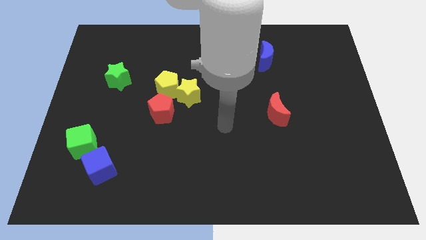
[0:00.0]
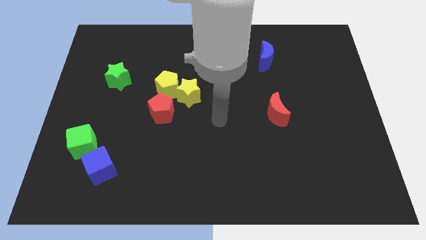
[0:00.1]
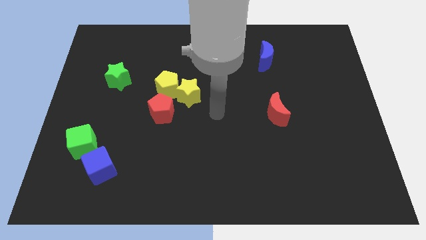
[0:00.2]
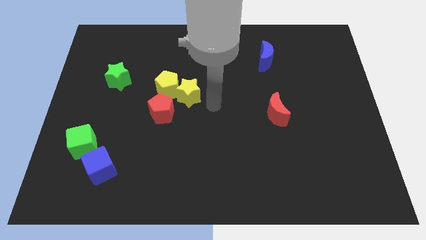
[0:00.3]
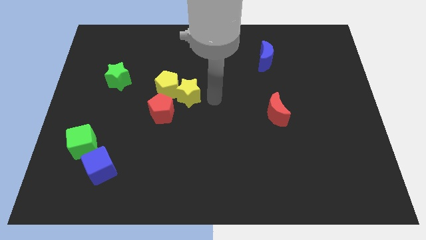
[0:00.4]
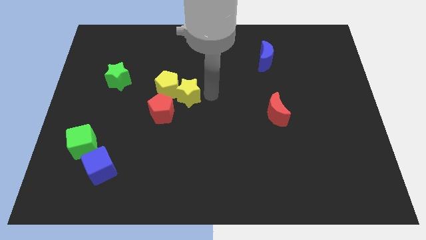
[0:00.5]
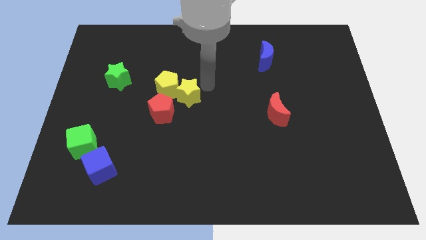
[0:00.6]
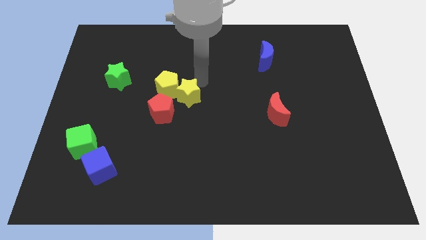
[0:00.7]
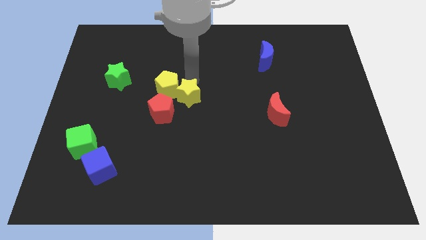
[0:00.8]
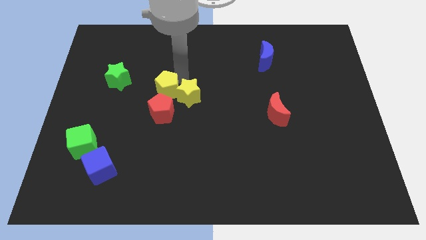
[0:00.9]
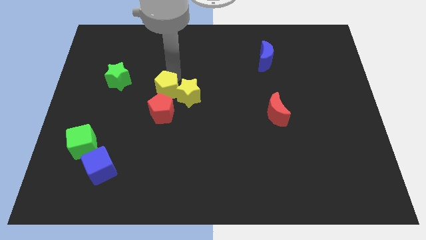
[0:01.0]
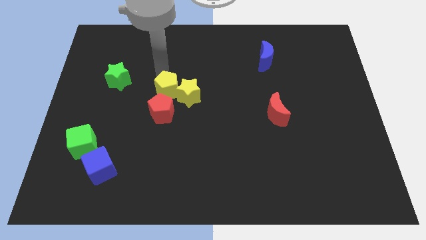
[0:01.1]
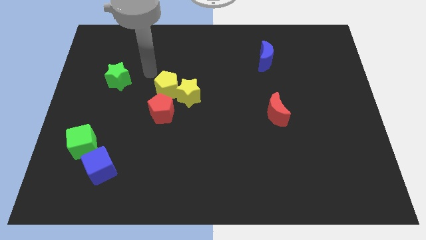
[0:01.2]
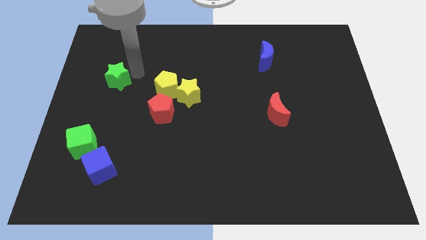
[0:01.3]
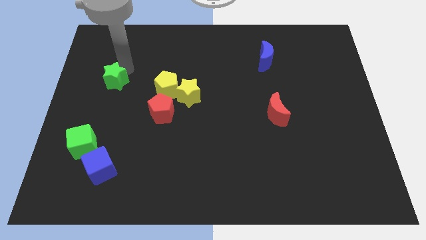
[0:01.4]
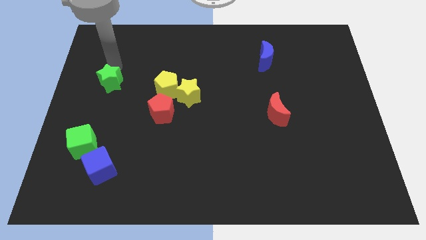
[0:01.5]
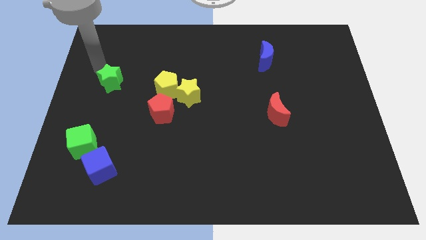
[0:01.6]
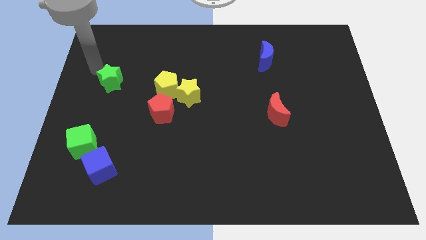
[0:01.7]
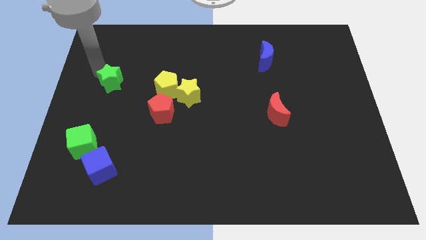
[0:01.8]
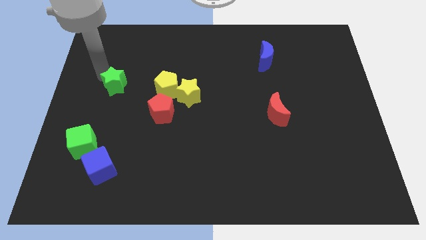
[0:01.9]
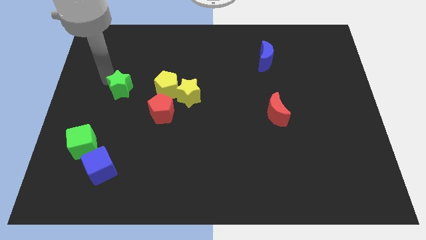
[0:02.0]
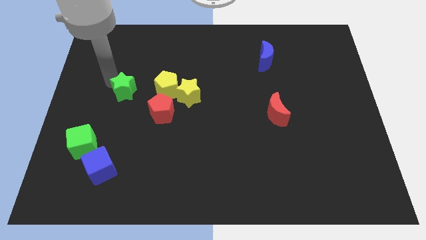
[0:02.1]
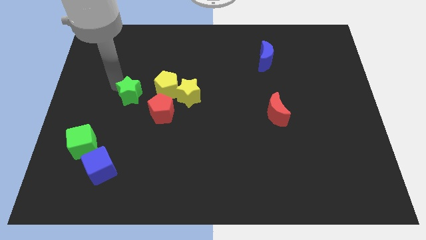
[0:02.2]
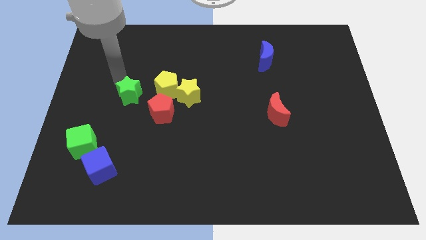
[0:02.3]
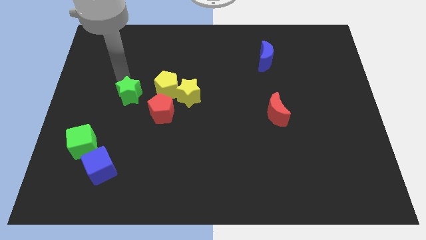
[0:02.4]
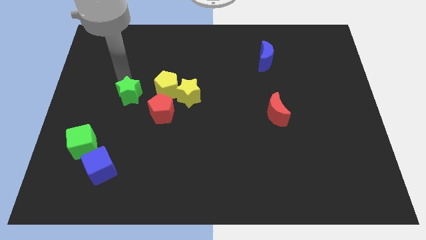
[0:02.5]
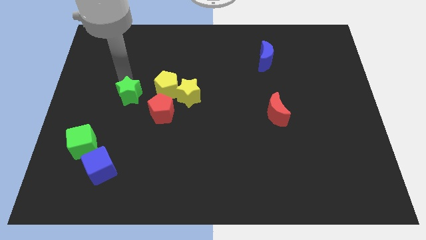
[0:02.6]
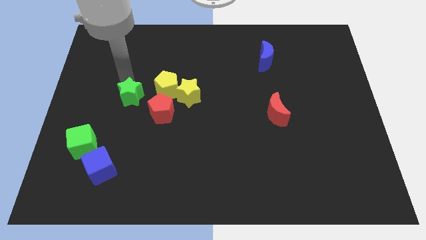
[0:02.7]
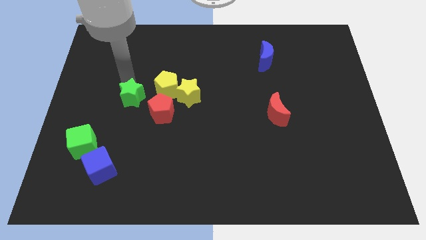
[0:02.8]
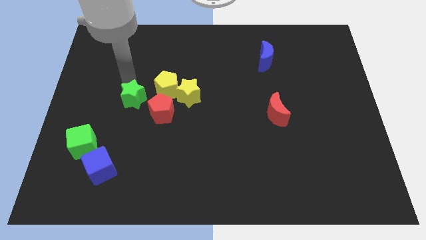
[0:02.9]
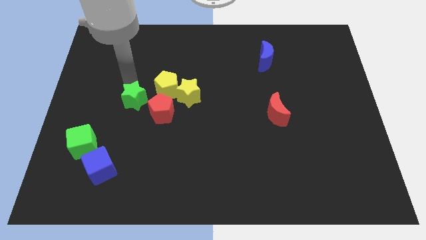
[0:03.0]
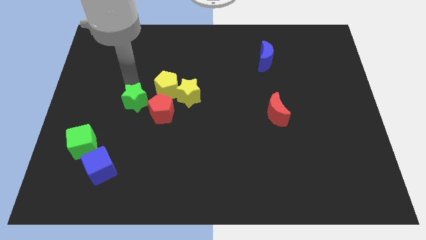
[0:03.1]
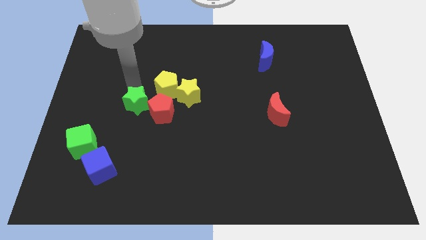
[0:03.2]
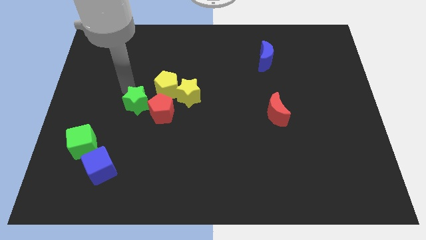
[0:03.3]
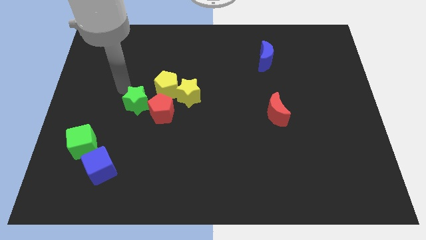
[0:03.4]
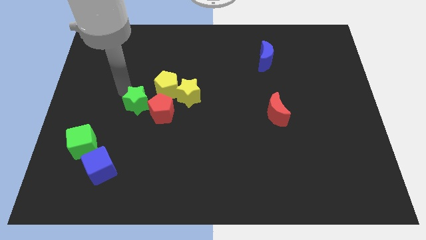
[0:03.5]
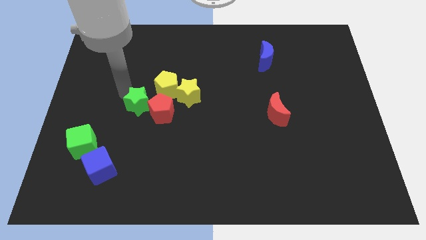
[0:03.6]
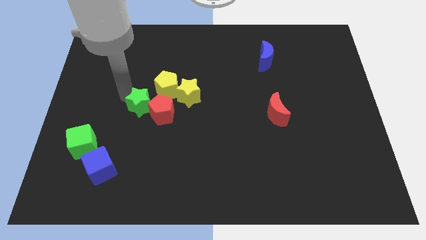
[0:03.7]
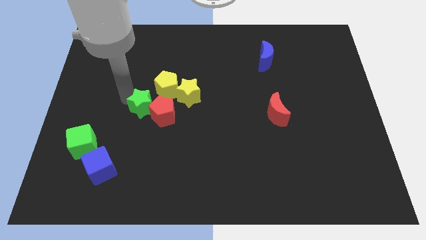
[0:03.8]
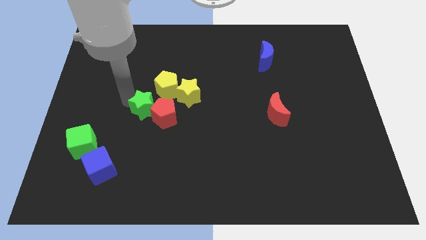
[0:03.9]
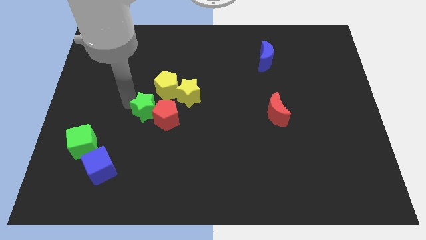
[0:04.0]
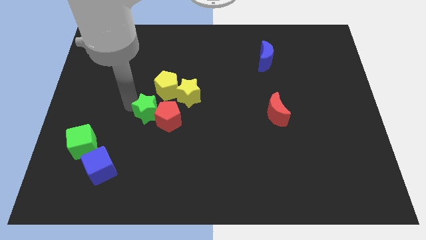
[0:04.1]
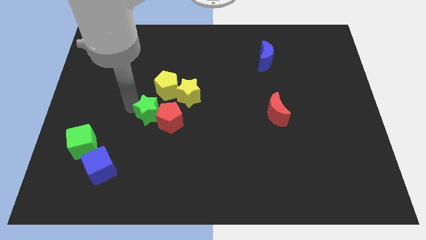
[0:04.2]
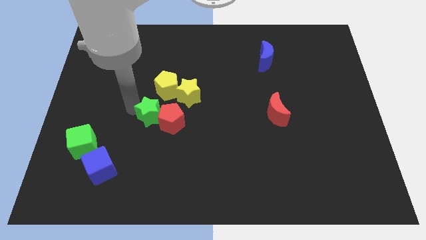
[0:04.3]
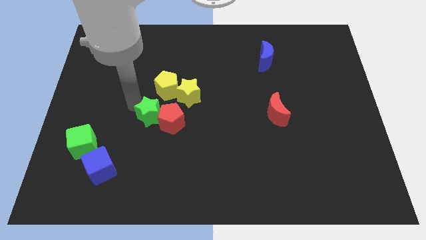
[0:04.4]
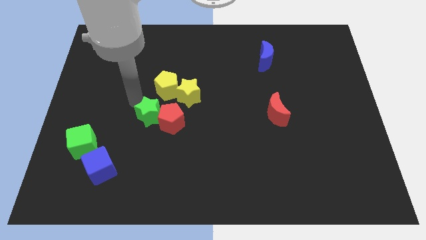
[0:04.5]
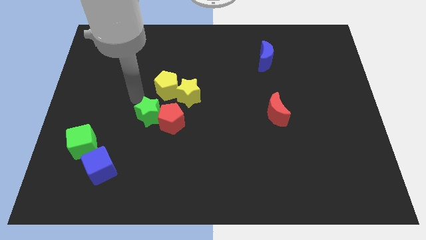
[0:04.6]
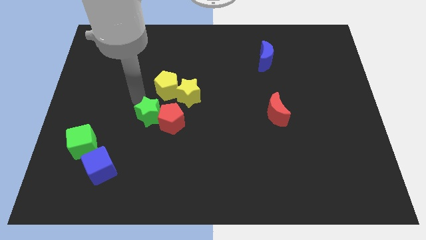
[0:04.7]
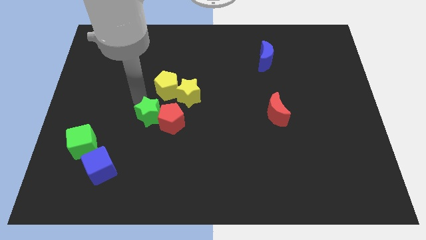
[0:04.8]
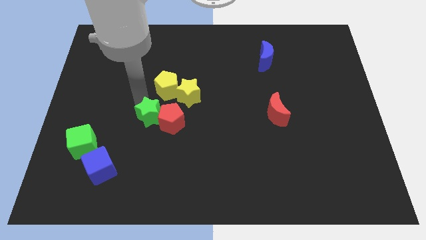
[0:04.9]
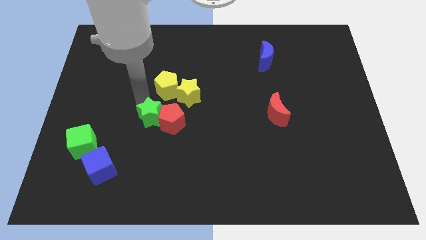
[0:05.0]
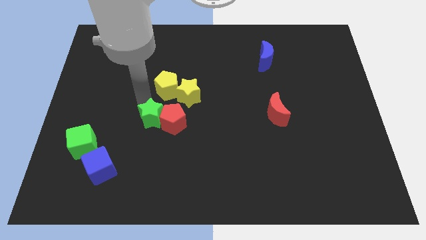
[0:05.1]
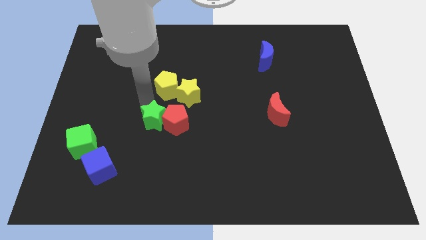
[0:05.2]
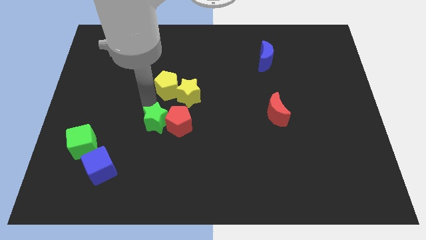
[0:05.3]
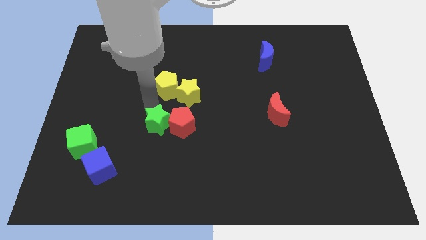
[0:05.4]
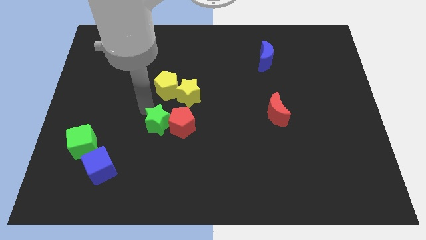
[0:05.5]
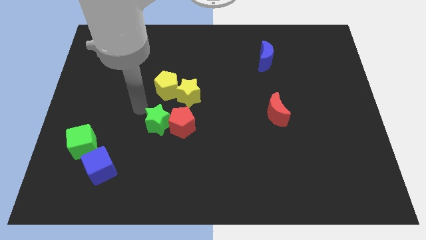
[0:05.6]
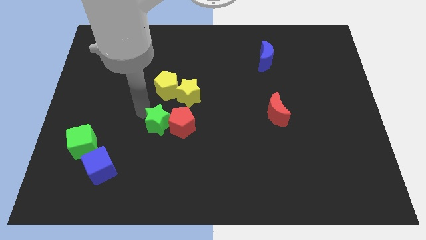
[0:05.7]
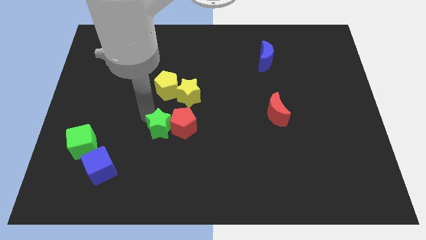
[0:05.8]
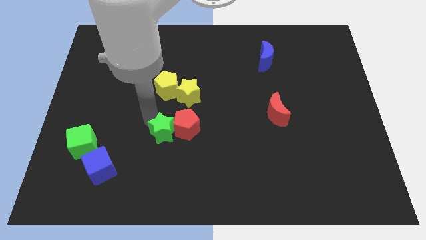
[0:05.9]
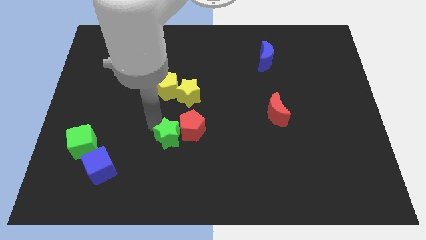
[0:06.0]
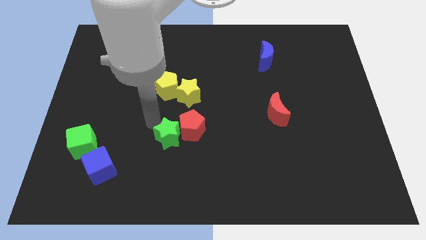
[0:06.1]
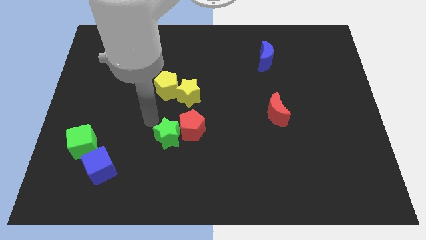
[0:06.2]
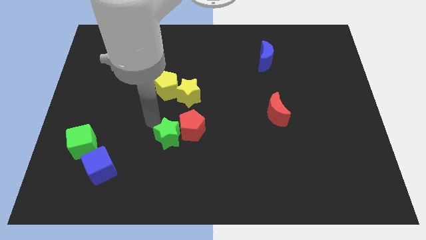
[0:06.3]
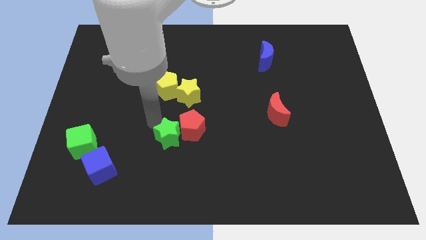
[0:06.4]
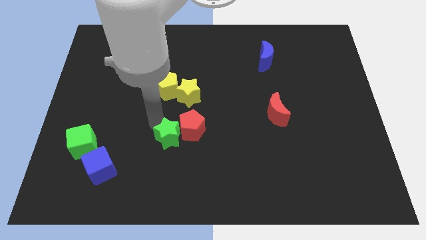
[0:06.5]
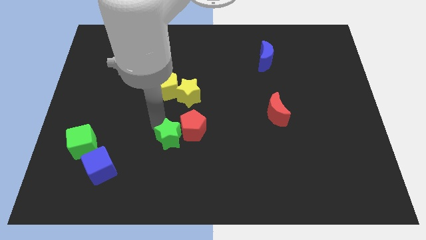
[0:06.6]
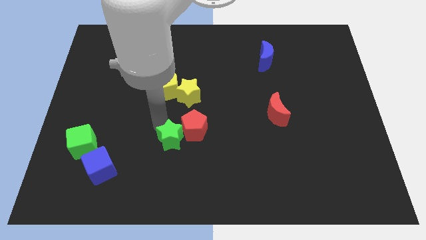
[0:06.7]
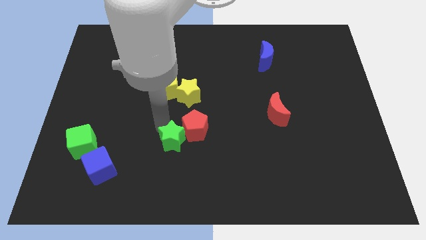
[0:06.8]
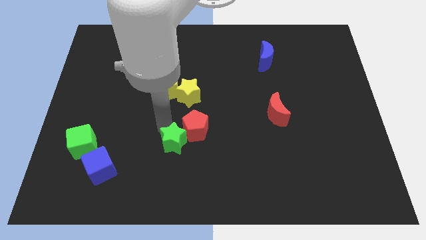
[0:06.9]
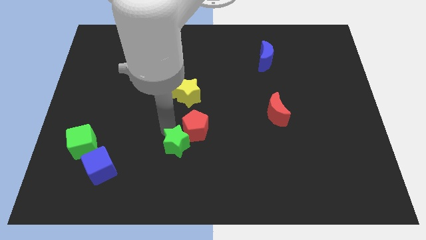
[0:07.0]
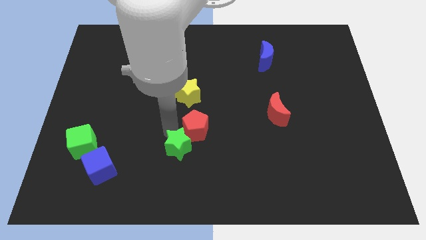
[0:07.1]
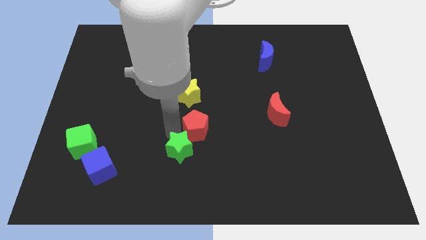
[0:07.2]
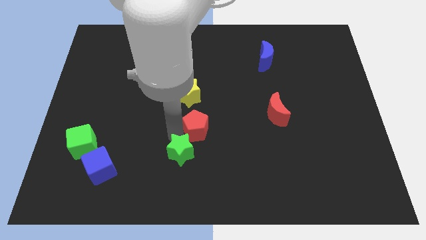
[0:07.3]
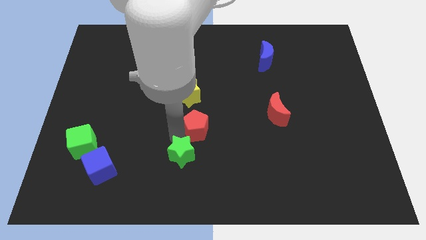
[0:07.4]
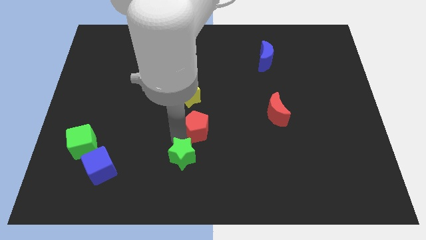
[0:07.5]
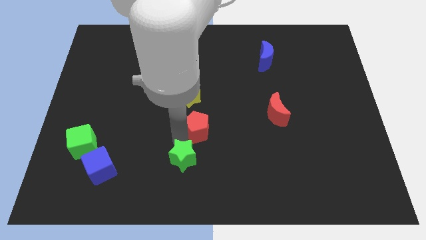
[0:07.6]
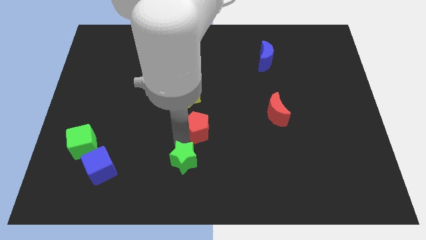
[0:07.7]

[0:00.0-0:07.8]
push the green star to the bottom side
